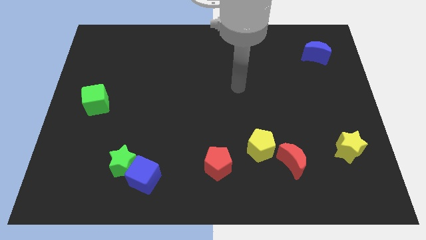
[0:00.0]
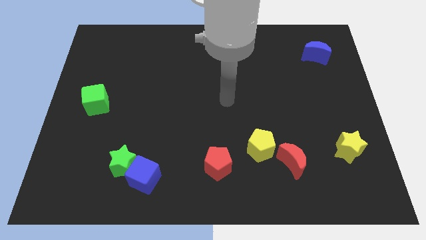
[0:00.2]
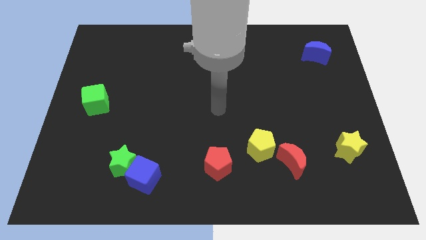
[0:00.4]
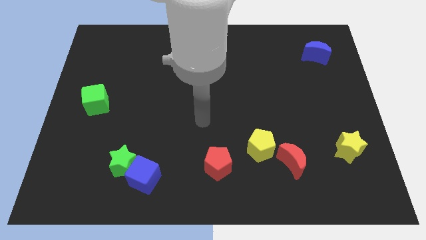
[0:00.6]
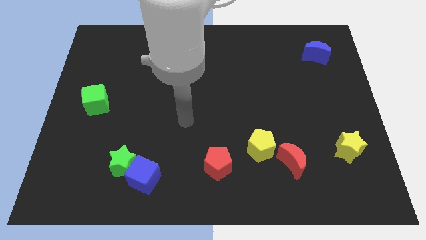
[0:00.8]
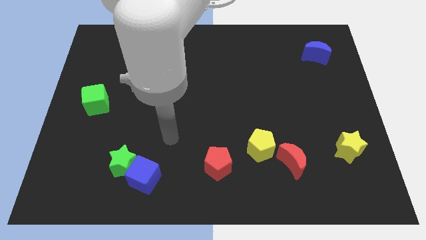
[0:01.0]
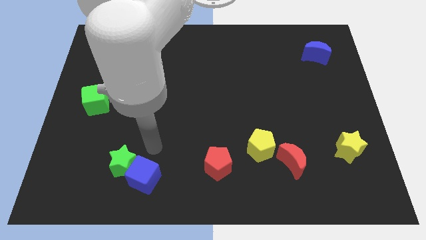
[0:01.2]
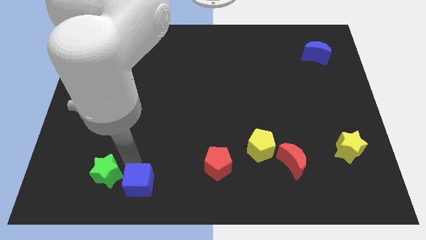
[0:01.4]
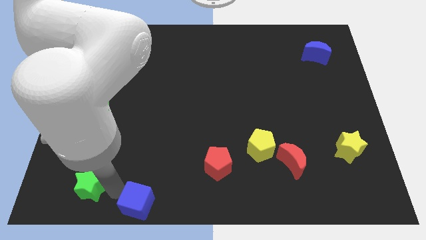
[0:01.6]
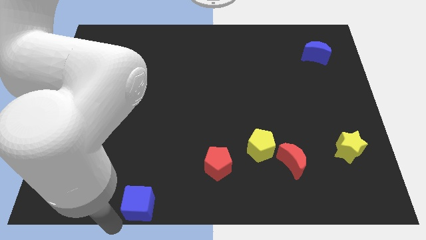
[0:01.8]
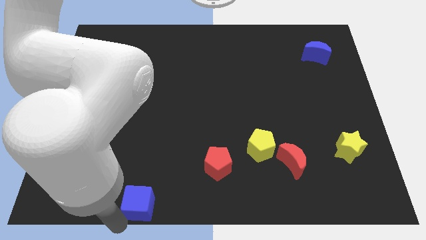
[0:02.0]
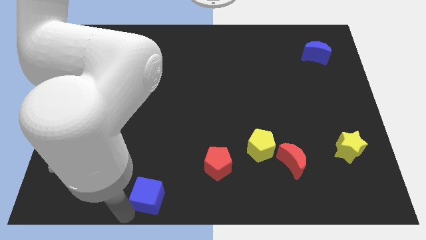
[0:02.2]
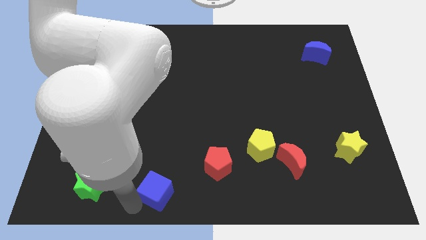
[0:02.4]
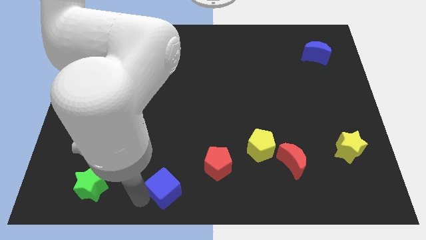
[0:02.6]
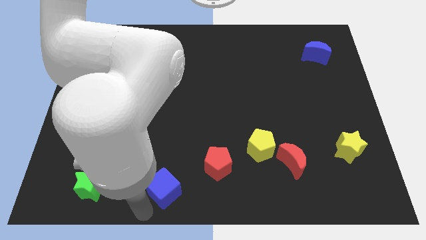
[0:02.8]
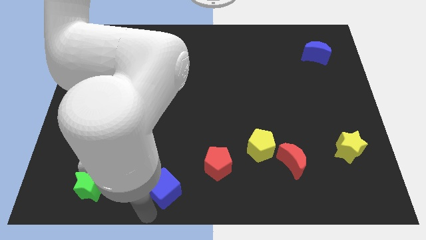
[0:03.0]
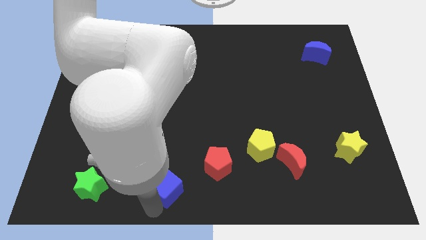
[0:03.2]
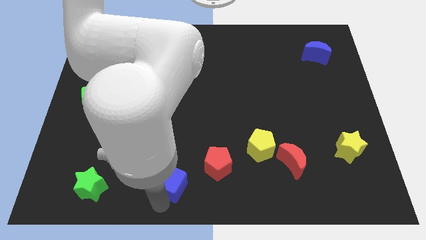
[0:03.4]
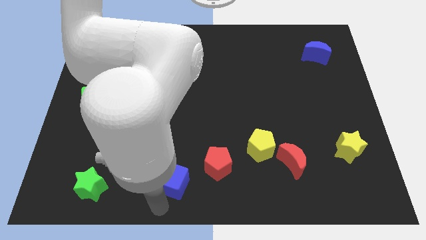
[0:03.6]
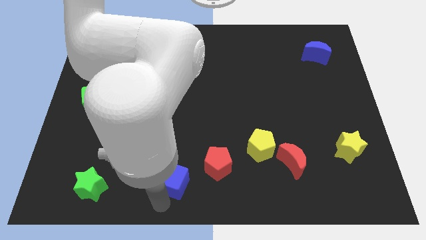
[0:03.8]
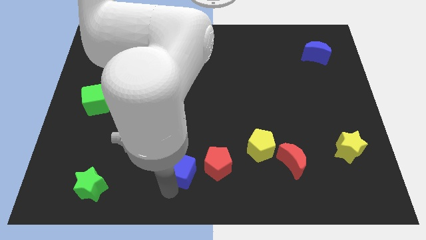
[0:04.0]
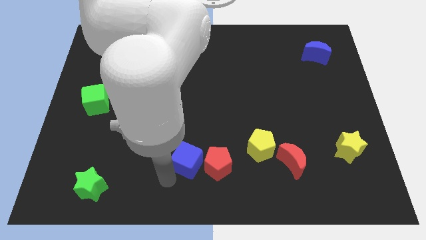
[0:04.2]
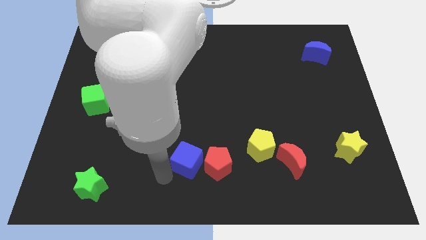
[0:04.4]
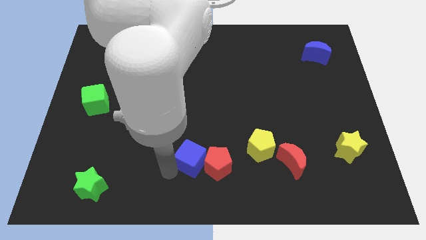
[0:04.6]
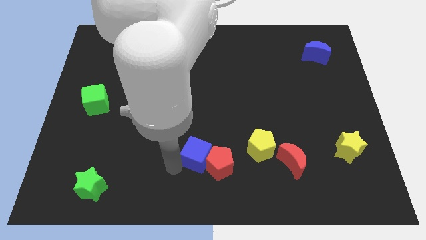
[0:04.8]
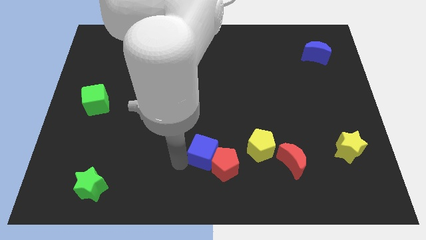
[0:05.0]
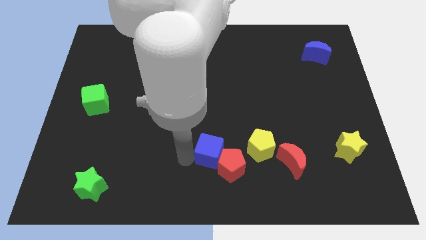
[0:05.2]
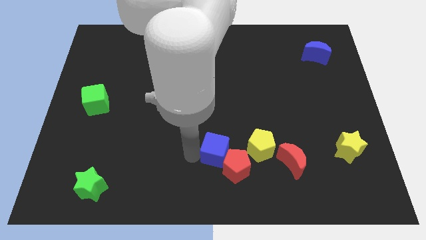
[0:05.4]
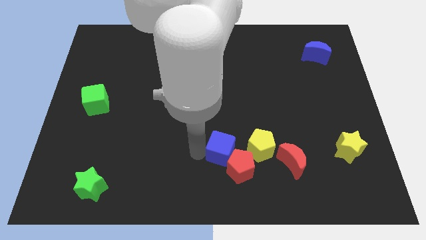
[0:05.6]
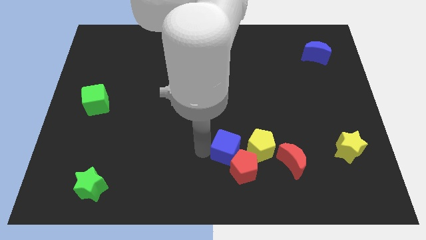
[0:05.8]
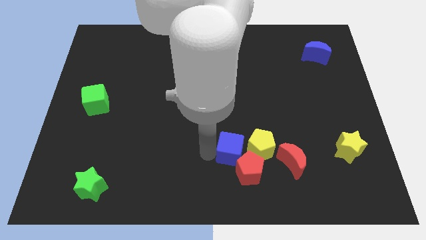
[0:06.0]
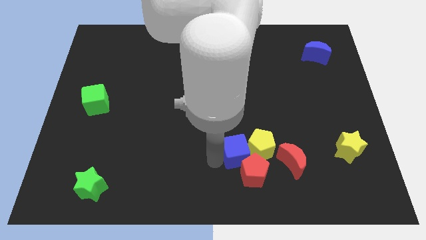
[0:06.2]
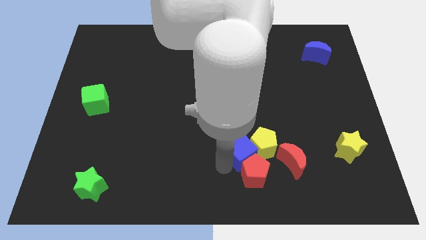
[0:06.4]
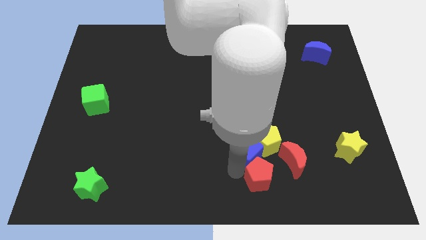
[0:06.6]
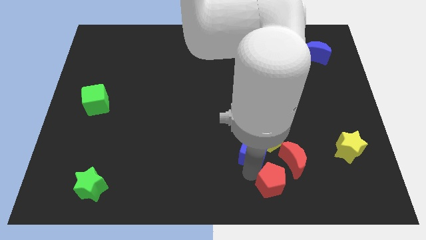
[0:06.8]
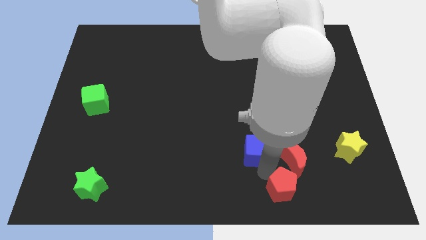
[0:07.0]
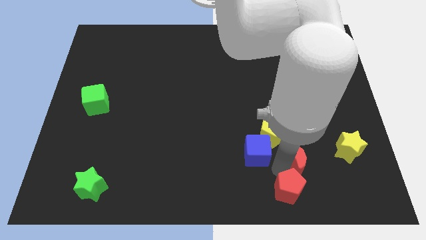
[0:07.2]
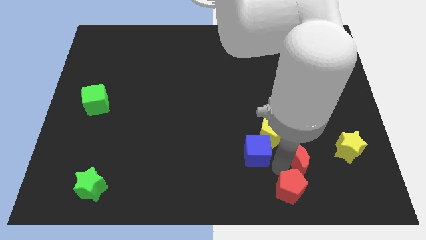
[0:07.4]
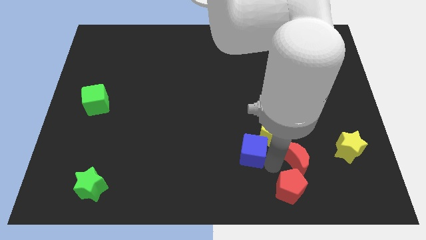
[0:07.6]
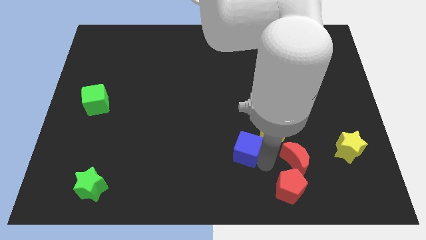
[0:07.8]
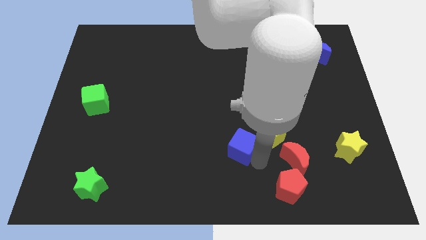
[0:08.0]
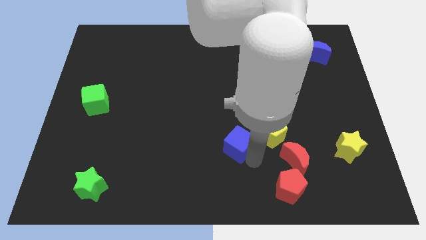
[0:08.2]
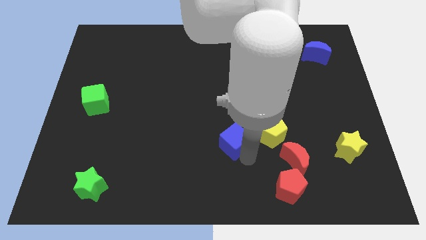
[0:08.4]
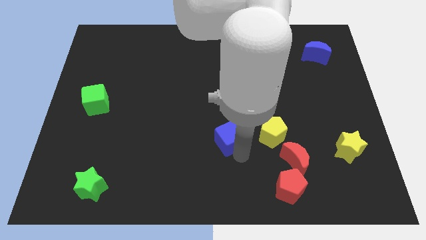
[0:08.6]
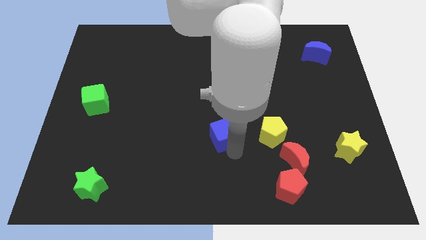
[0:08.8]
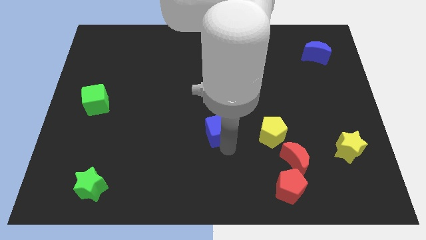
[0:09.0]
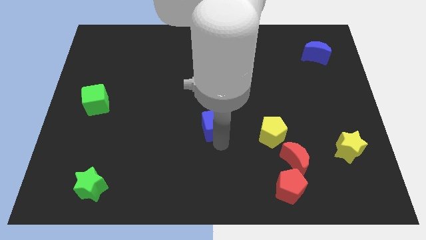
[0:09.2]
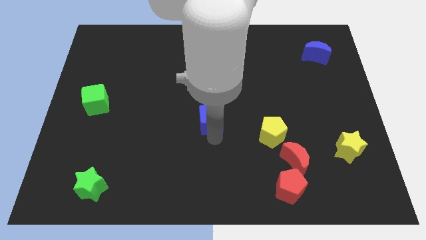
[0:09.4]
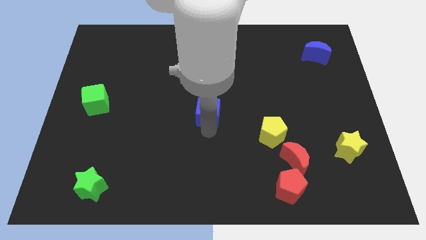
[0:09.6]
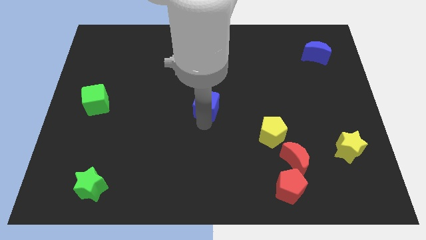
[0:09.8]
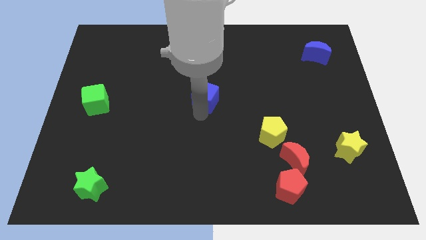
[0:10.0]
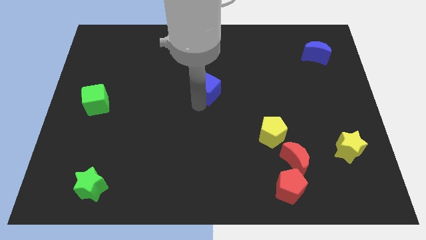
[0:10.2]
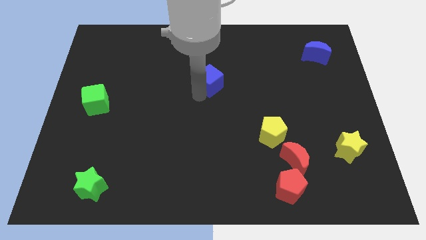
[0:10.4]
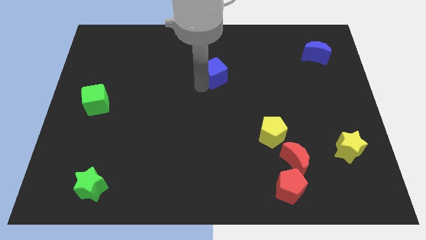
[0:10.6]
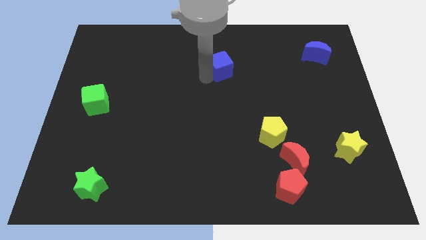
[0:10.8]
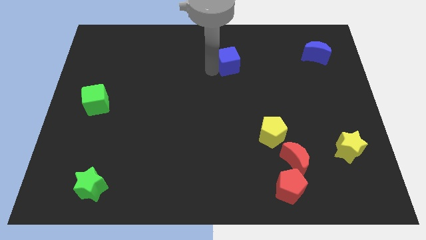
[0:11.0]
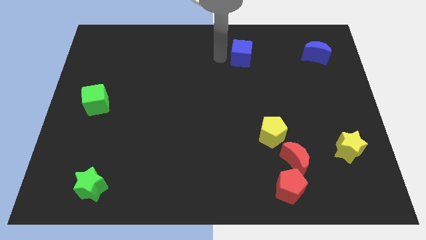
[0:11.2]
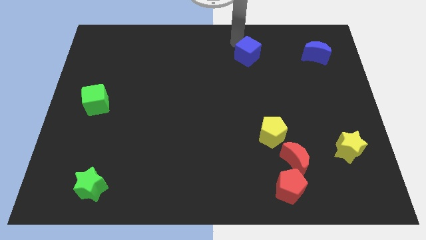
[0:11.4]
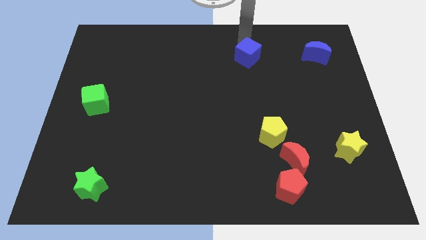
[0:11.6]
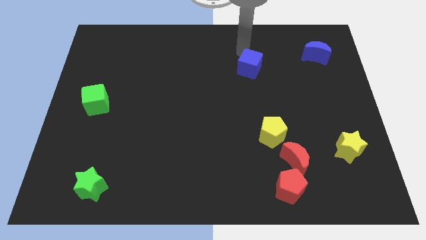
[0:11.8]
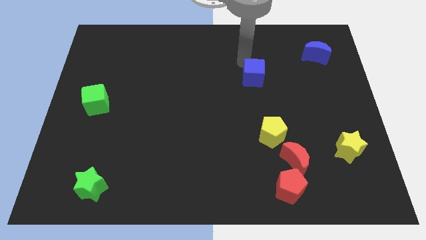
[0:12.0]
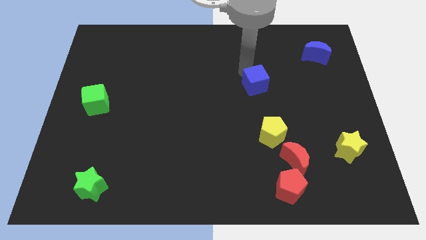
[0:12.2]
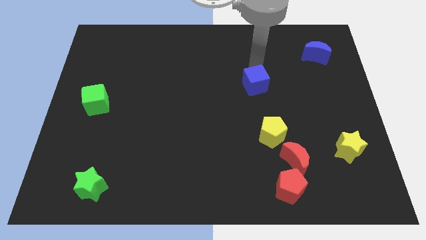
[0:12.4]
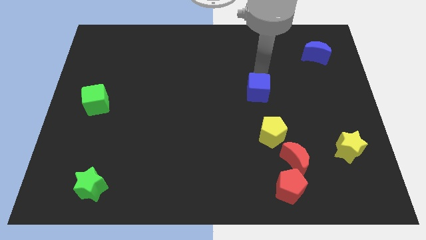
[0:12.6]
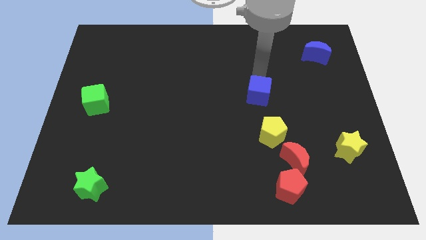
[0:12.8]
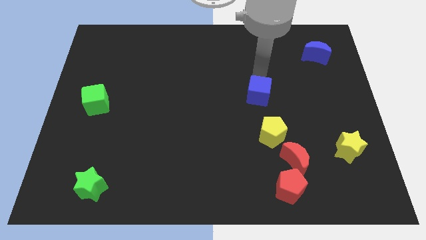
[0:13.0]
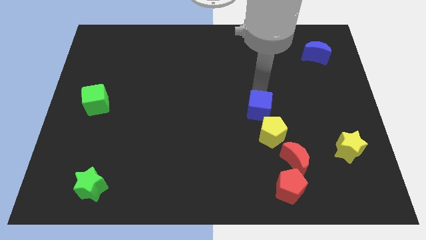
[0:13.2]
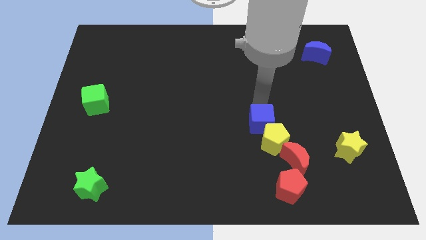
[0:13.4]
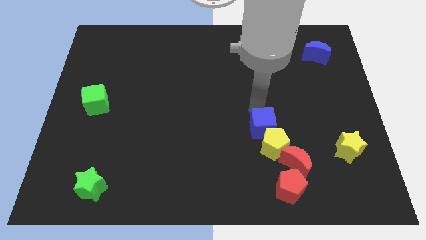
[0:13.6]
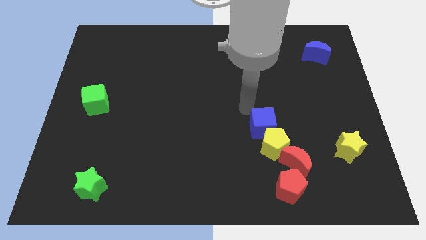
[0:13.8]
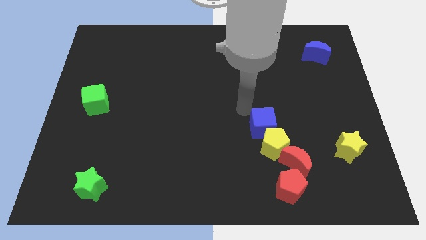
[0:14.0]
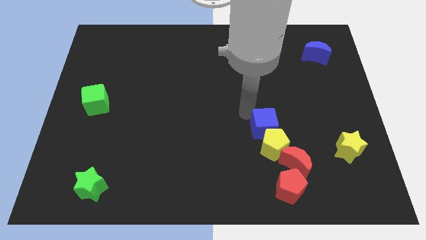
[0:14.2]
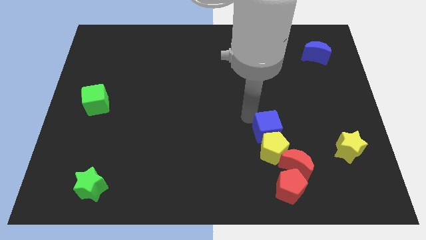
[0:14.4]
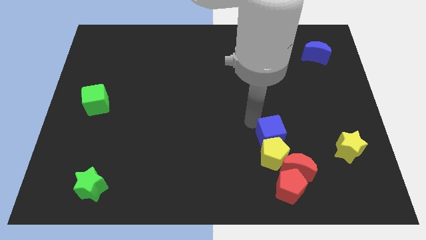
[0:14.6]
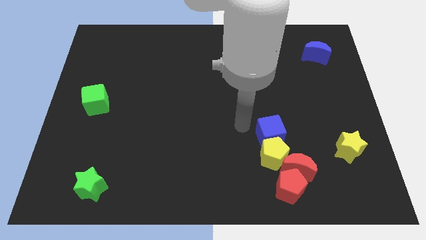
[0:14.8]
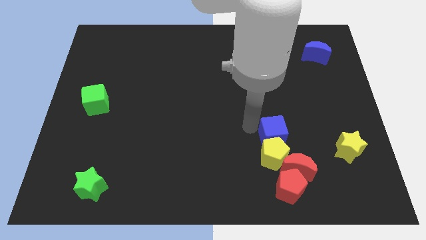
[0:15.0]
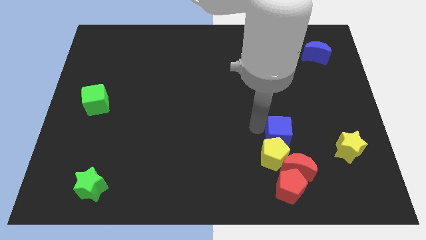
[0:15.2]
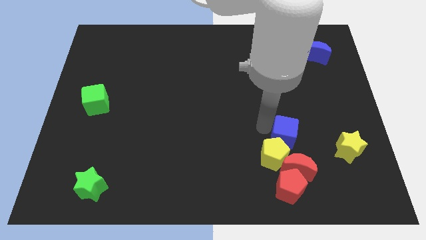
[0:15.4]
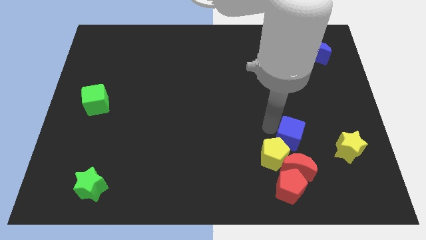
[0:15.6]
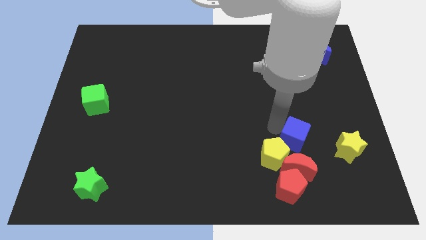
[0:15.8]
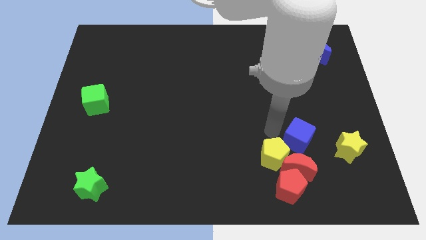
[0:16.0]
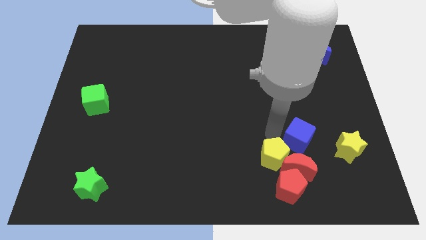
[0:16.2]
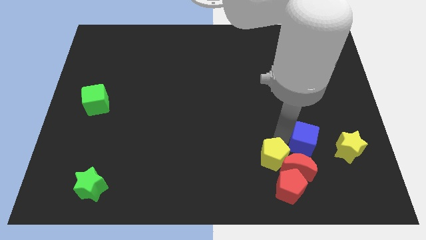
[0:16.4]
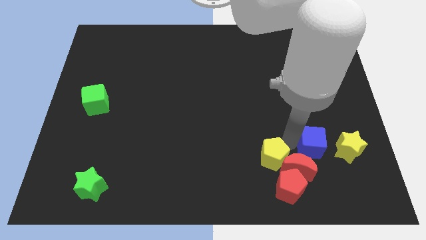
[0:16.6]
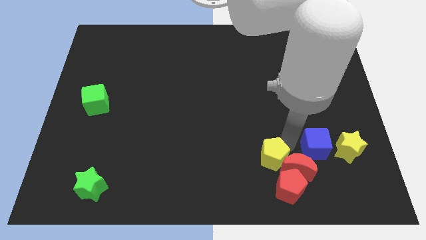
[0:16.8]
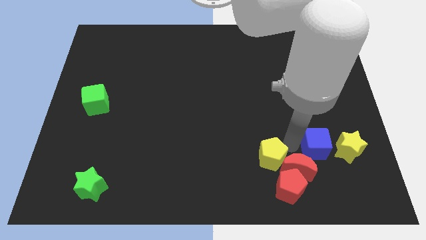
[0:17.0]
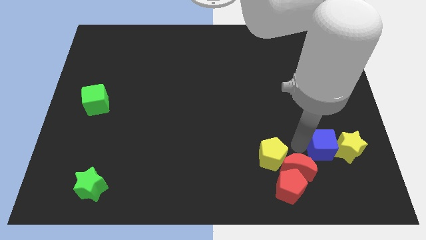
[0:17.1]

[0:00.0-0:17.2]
push the blue cube close to the yellow star
